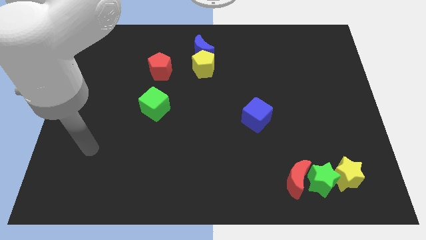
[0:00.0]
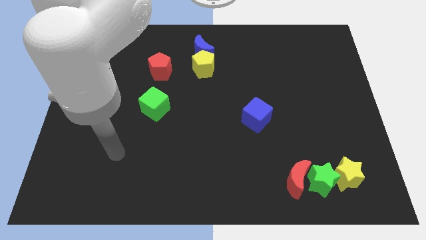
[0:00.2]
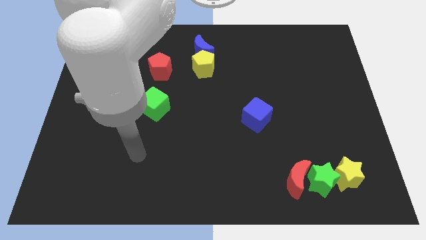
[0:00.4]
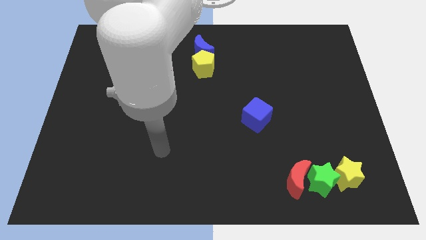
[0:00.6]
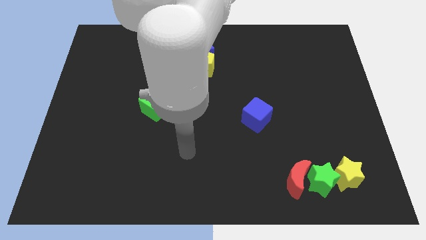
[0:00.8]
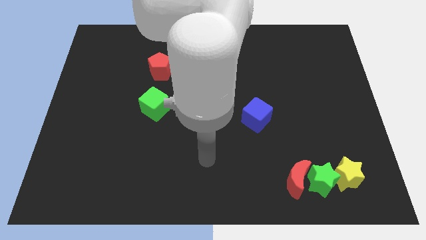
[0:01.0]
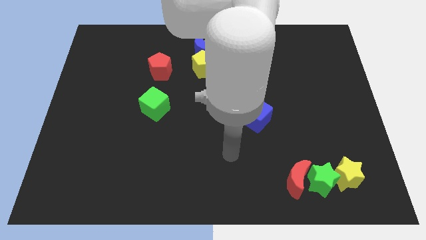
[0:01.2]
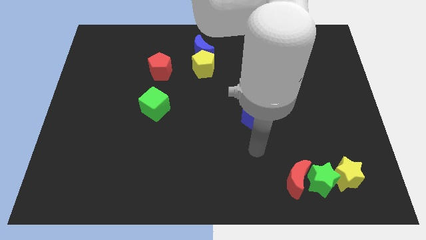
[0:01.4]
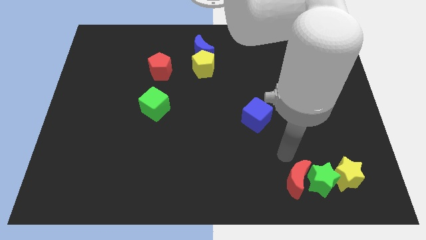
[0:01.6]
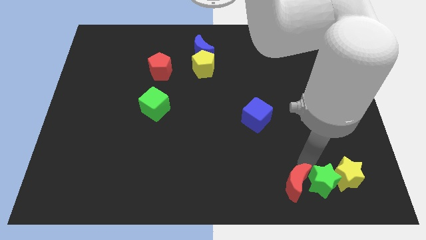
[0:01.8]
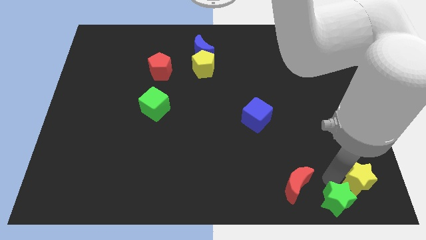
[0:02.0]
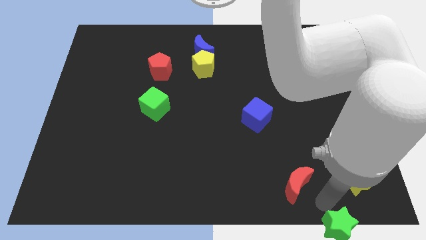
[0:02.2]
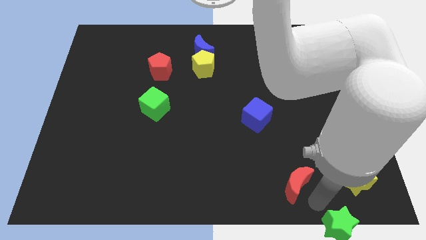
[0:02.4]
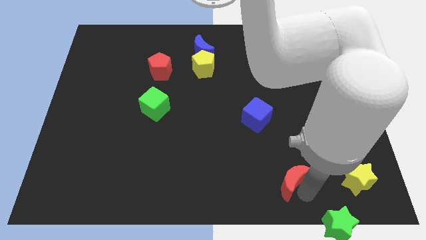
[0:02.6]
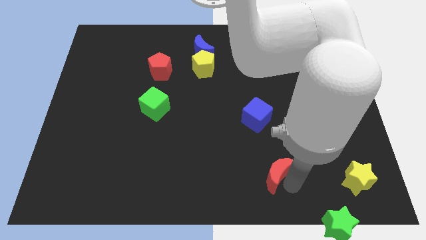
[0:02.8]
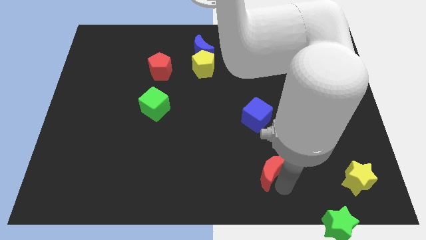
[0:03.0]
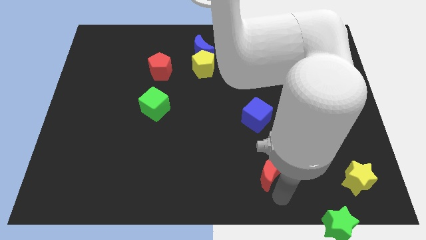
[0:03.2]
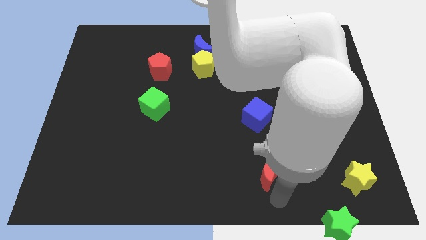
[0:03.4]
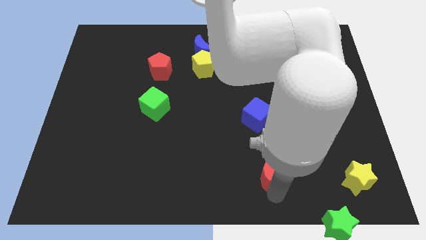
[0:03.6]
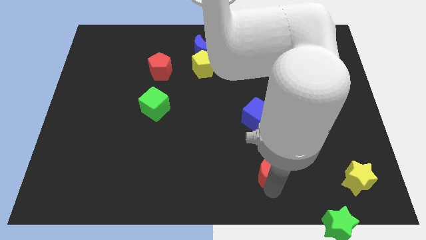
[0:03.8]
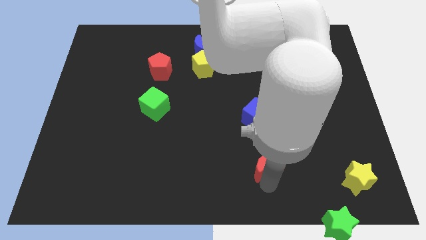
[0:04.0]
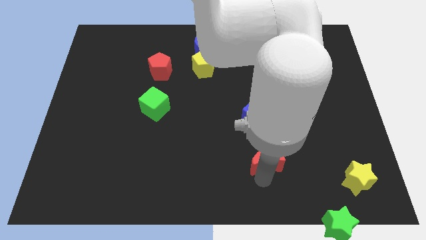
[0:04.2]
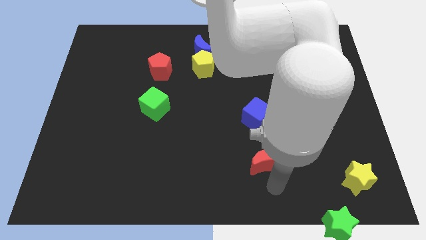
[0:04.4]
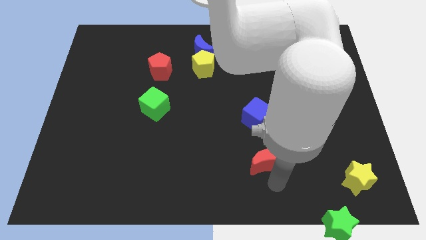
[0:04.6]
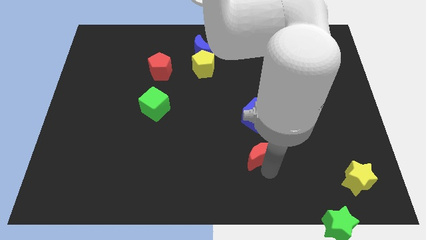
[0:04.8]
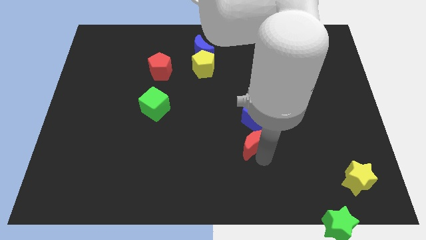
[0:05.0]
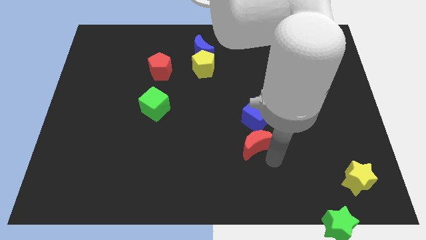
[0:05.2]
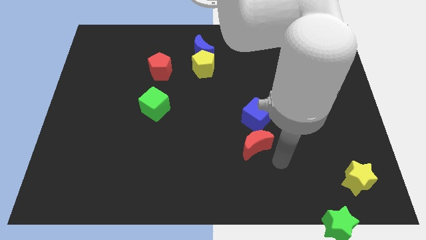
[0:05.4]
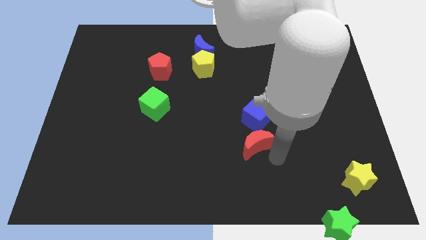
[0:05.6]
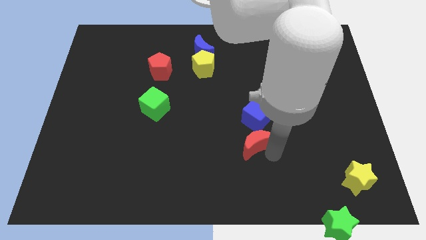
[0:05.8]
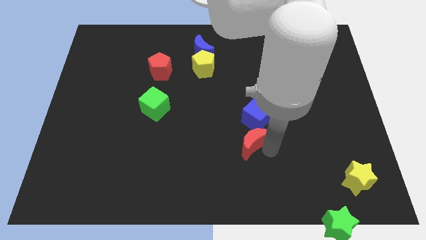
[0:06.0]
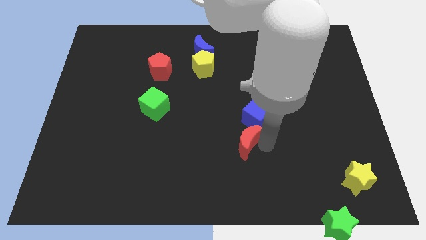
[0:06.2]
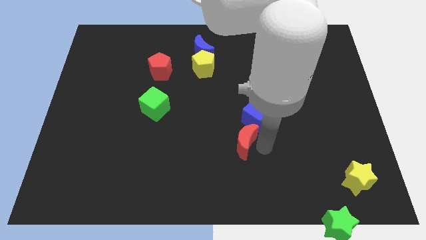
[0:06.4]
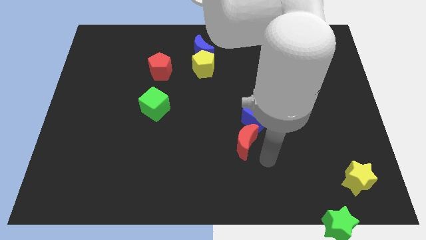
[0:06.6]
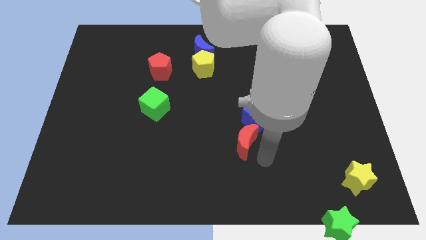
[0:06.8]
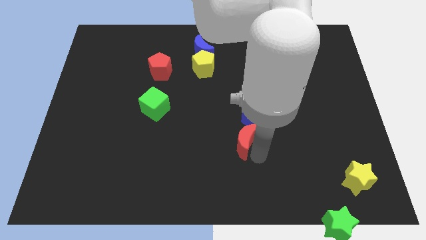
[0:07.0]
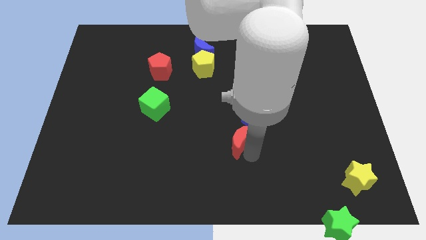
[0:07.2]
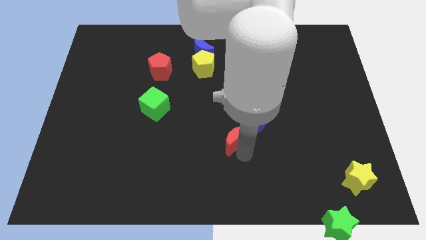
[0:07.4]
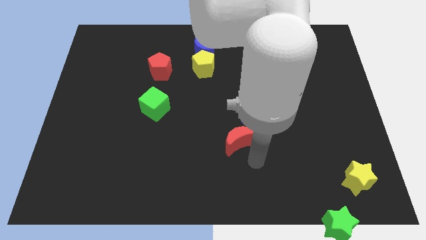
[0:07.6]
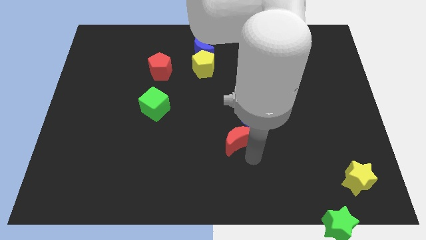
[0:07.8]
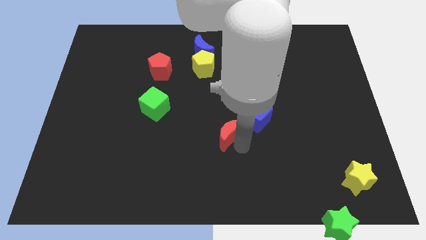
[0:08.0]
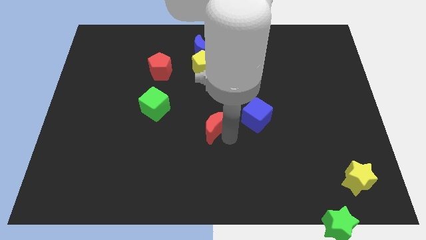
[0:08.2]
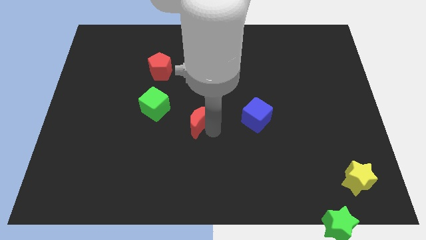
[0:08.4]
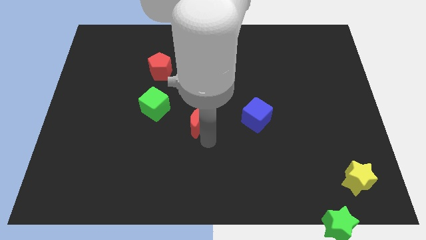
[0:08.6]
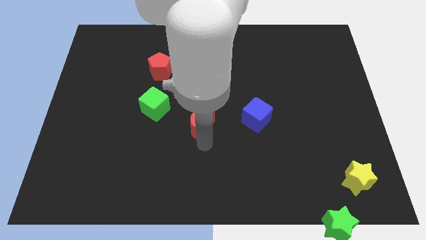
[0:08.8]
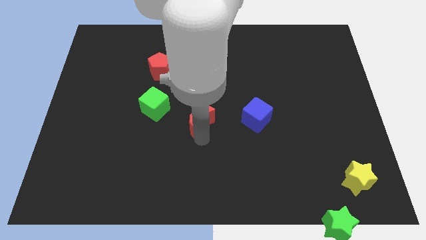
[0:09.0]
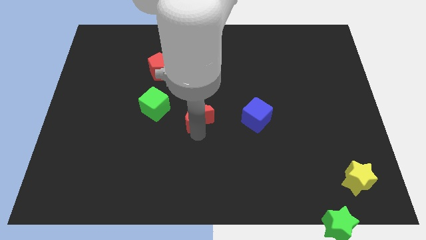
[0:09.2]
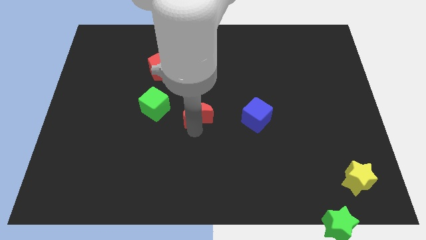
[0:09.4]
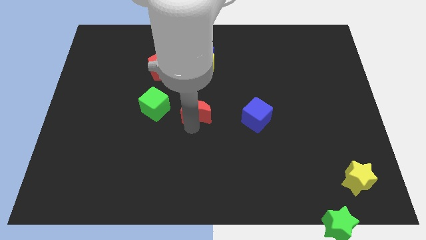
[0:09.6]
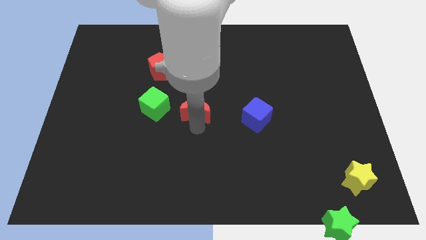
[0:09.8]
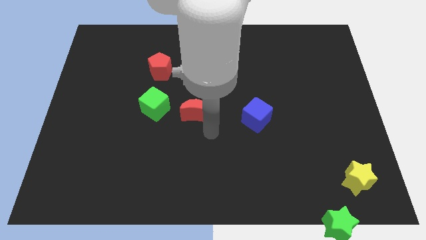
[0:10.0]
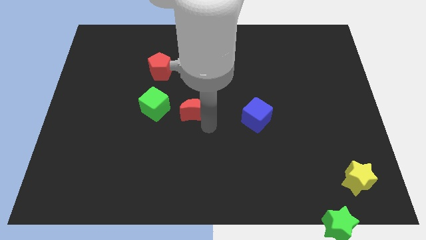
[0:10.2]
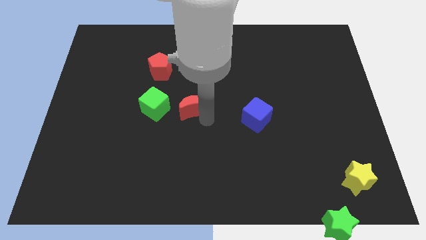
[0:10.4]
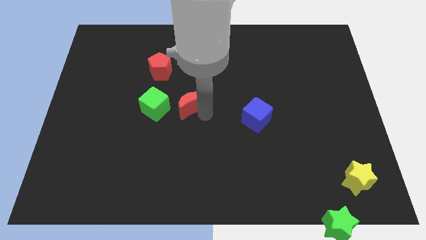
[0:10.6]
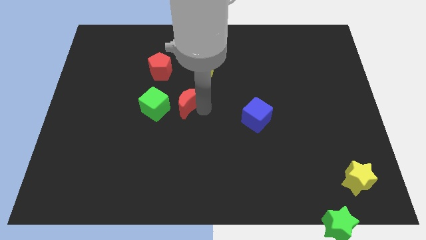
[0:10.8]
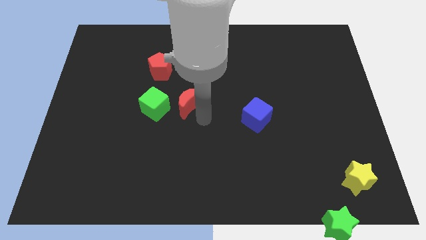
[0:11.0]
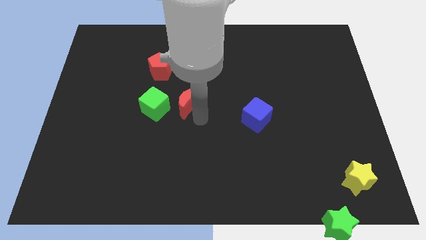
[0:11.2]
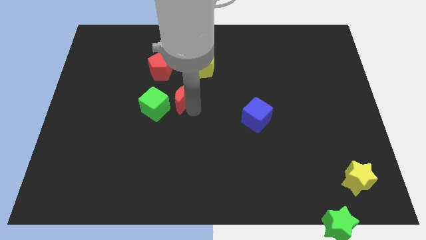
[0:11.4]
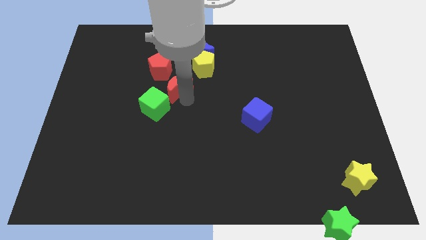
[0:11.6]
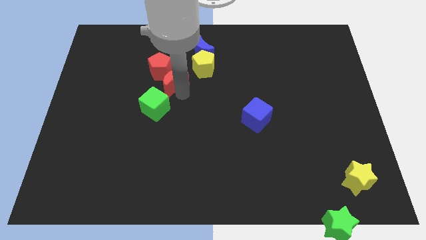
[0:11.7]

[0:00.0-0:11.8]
move the red moon towards the red pentagon

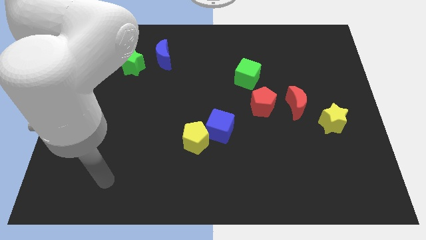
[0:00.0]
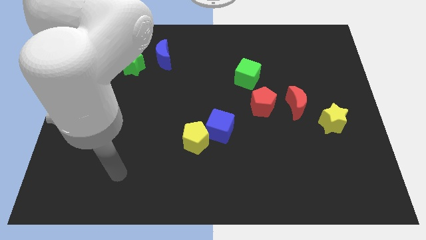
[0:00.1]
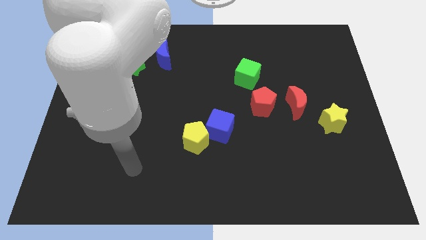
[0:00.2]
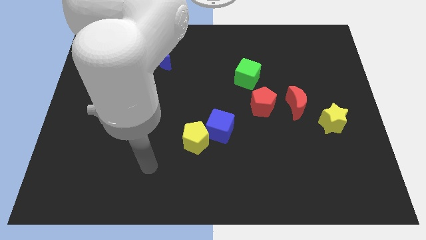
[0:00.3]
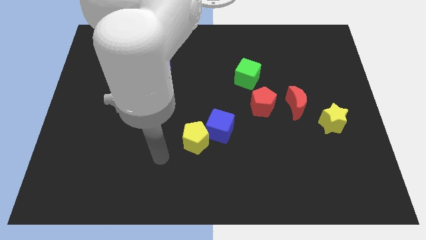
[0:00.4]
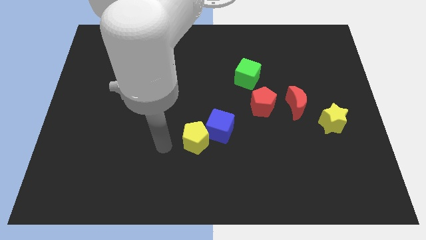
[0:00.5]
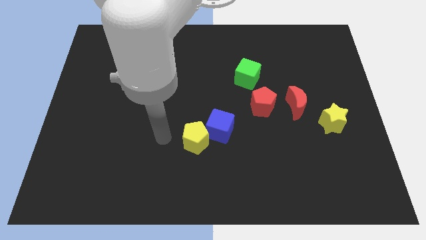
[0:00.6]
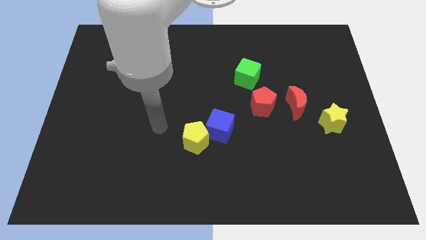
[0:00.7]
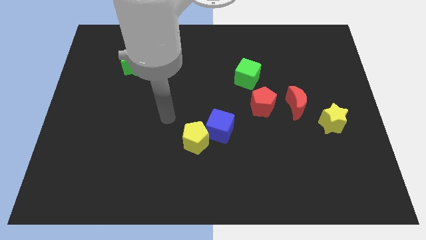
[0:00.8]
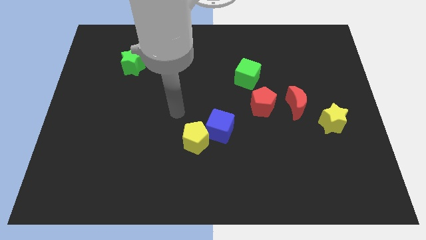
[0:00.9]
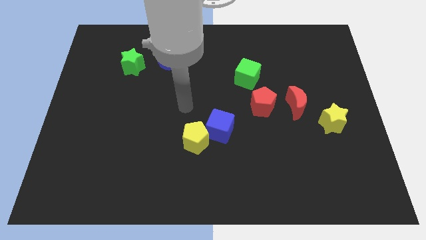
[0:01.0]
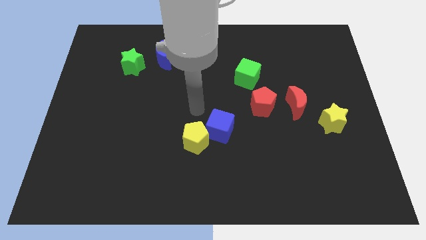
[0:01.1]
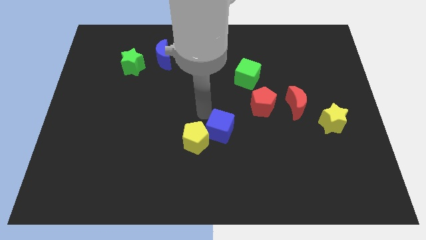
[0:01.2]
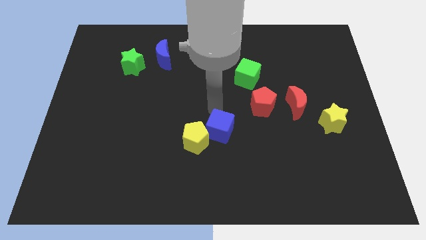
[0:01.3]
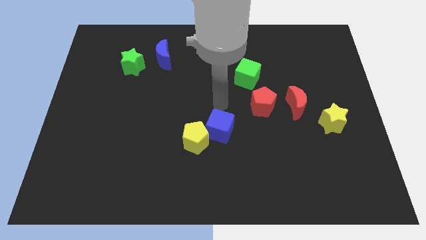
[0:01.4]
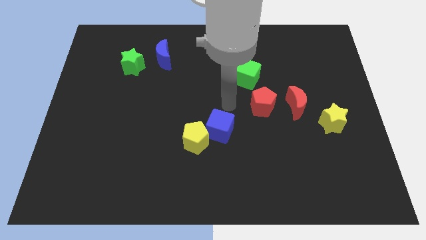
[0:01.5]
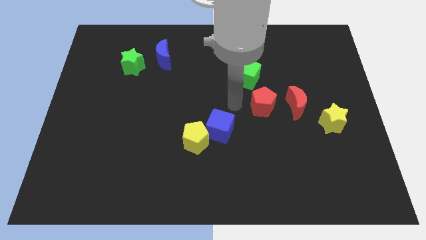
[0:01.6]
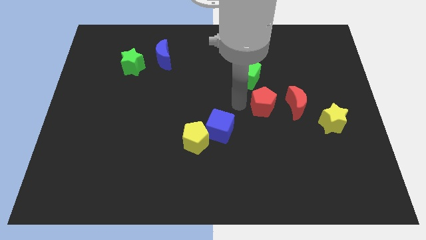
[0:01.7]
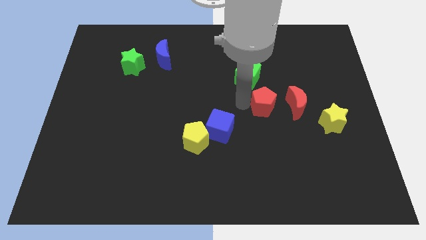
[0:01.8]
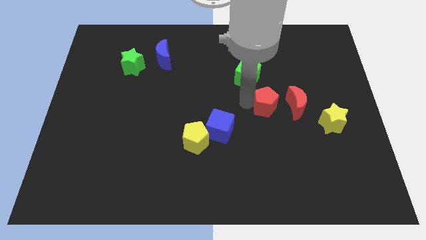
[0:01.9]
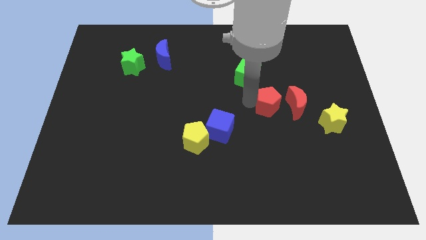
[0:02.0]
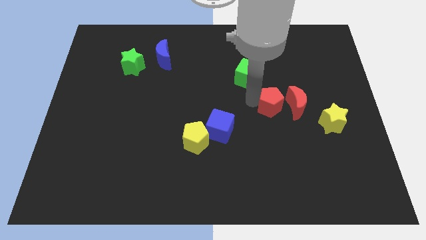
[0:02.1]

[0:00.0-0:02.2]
move the red pentagon next to the red moon
